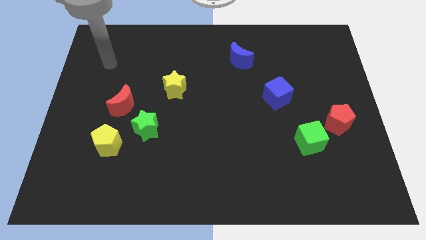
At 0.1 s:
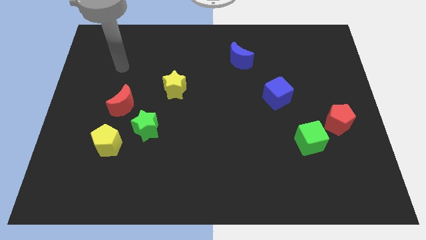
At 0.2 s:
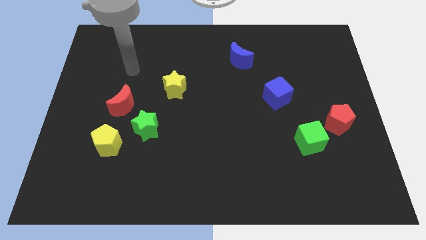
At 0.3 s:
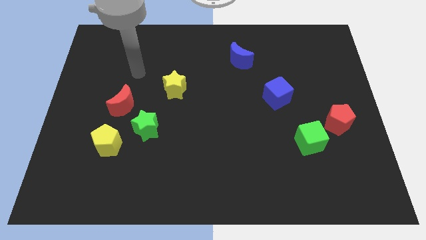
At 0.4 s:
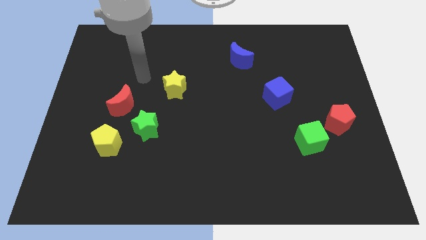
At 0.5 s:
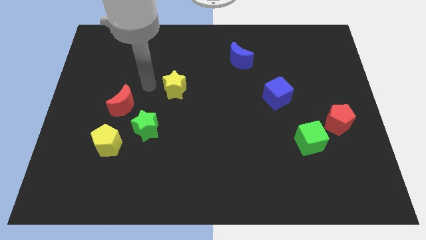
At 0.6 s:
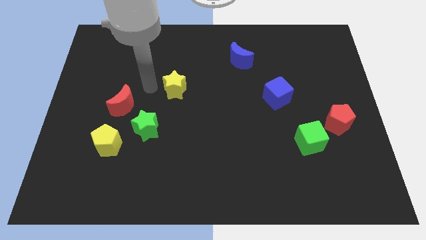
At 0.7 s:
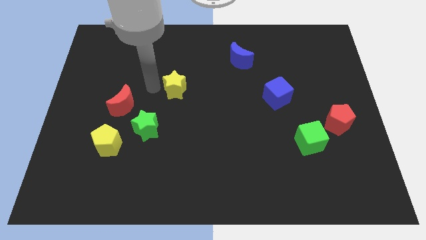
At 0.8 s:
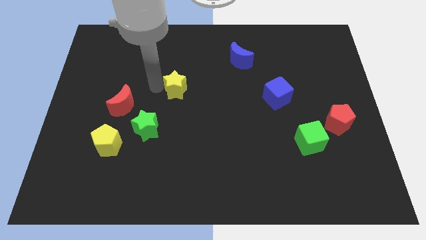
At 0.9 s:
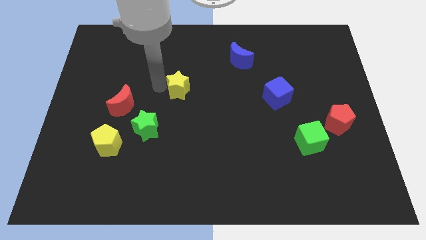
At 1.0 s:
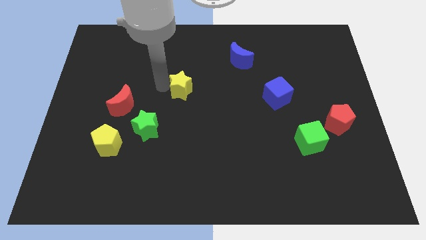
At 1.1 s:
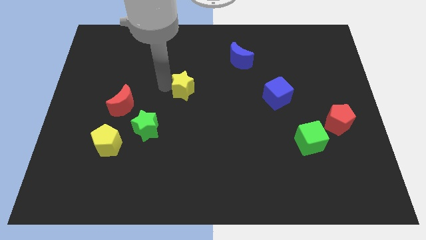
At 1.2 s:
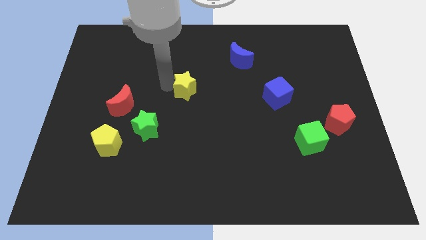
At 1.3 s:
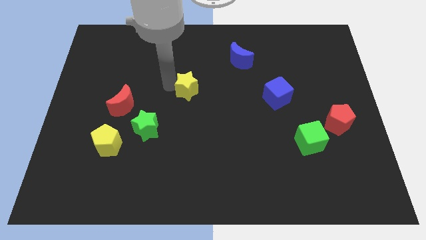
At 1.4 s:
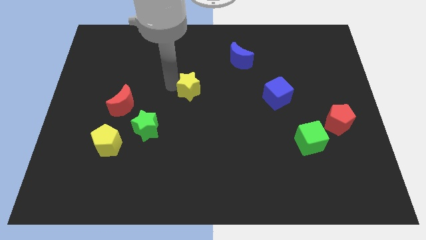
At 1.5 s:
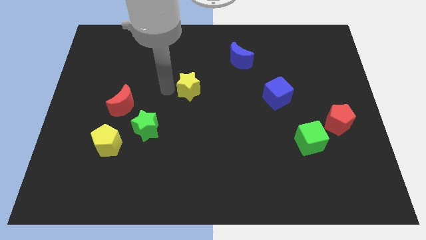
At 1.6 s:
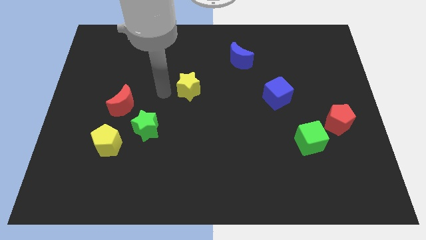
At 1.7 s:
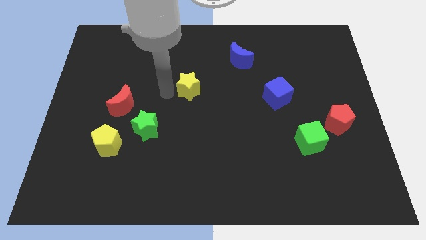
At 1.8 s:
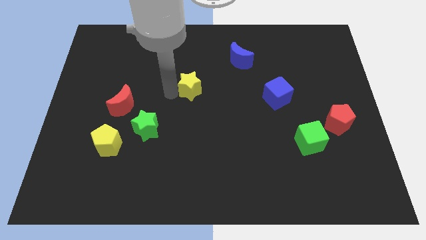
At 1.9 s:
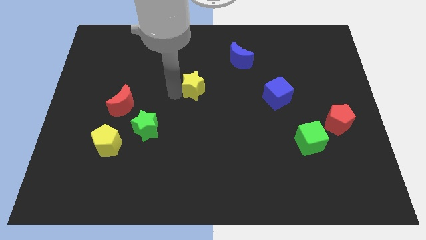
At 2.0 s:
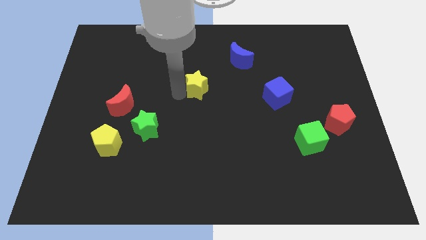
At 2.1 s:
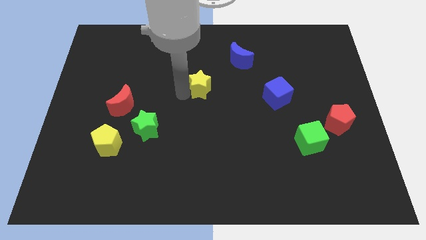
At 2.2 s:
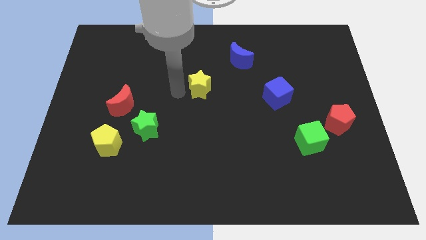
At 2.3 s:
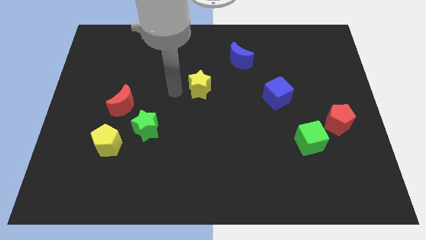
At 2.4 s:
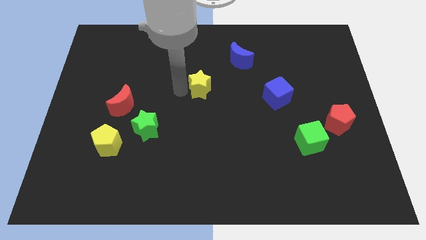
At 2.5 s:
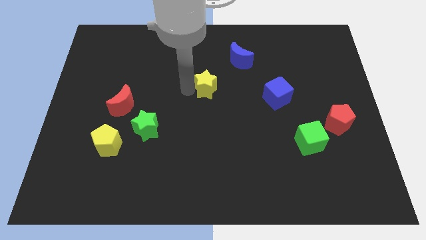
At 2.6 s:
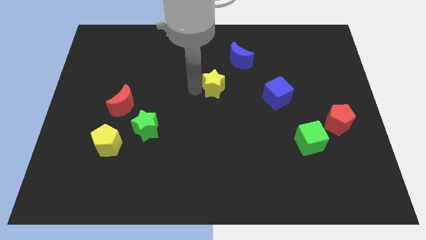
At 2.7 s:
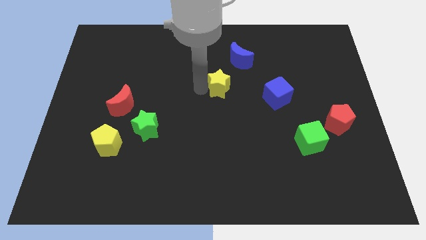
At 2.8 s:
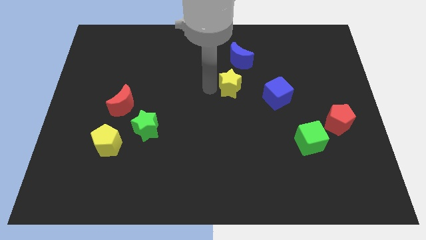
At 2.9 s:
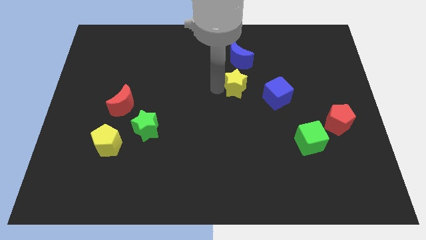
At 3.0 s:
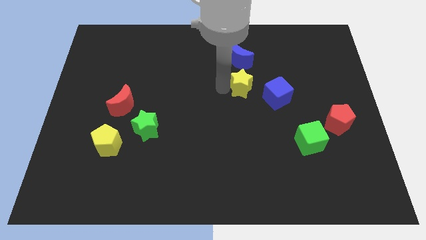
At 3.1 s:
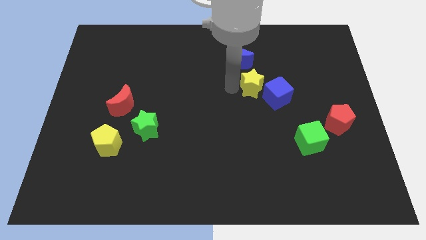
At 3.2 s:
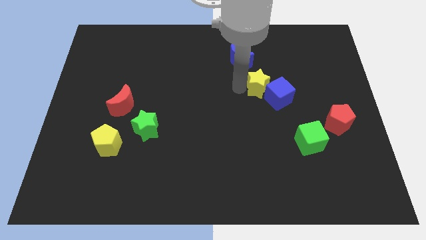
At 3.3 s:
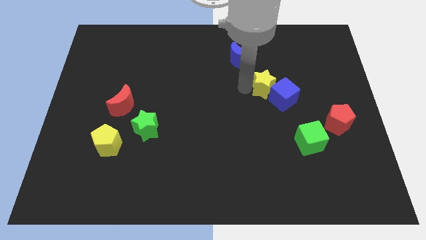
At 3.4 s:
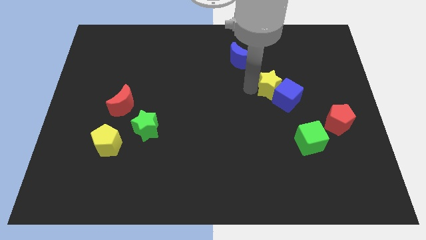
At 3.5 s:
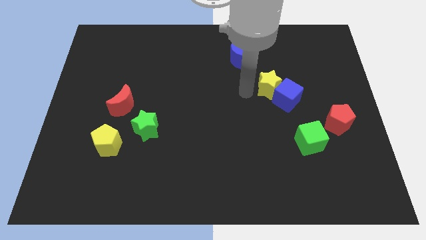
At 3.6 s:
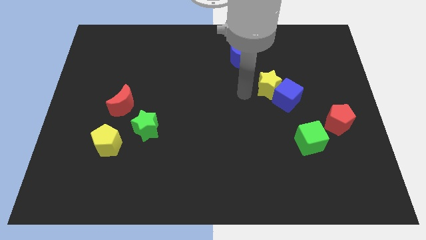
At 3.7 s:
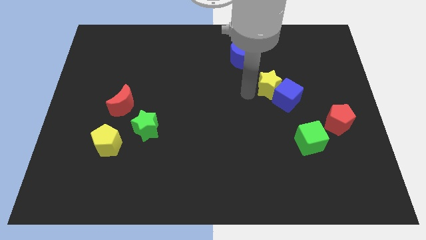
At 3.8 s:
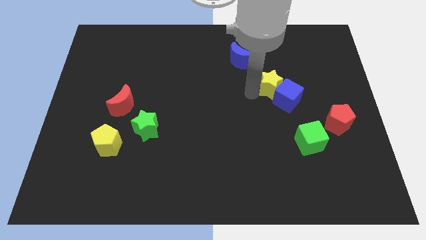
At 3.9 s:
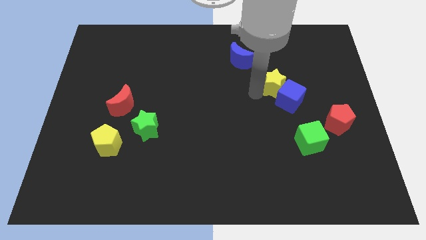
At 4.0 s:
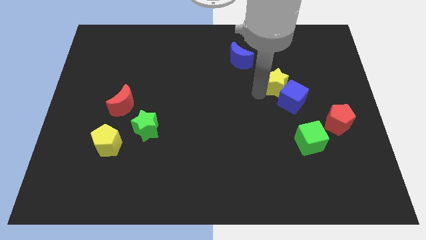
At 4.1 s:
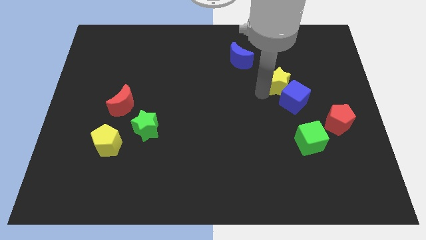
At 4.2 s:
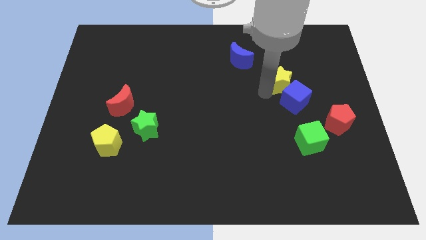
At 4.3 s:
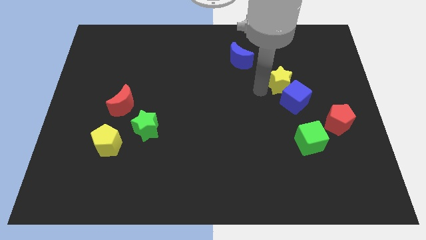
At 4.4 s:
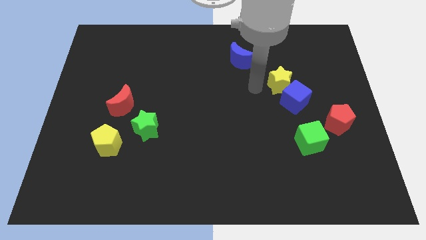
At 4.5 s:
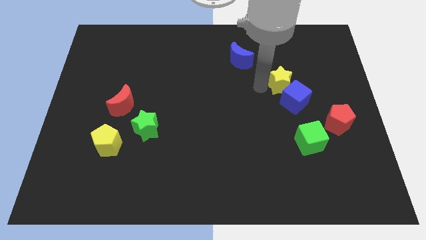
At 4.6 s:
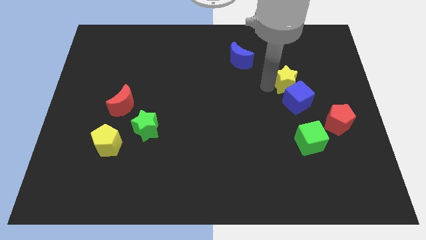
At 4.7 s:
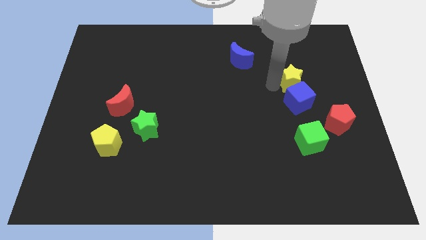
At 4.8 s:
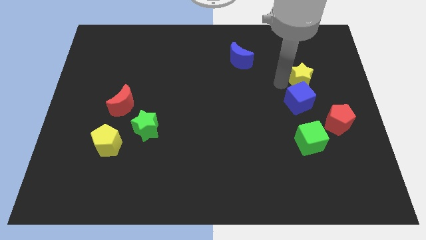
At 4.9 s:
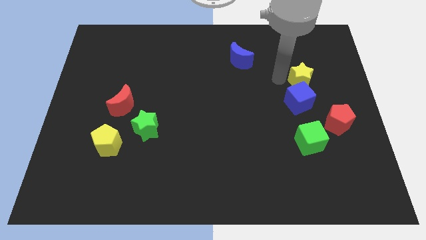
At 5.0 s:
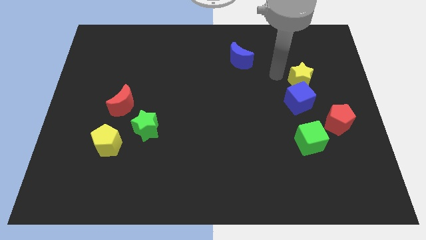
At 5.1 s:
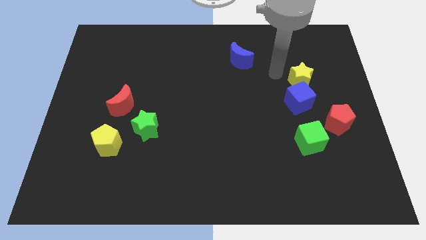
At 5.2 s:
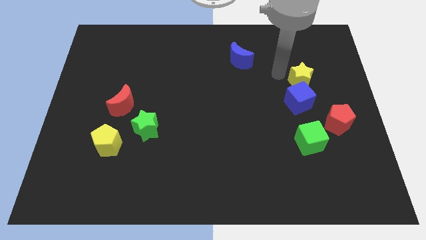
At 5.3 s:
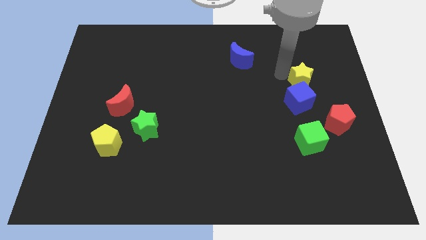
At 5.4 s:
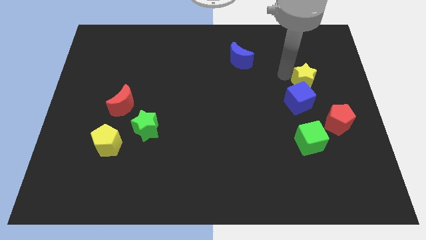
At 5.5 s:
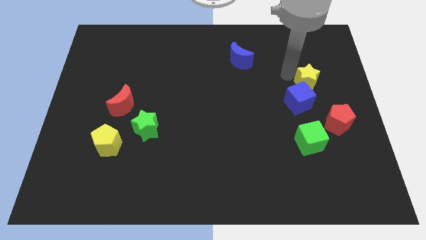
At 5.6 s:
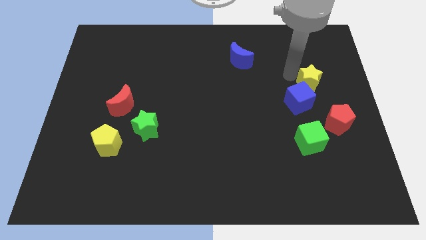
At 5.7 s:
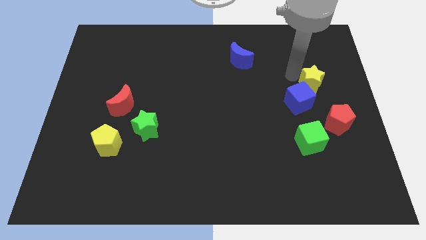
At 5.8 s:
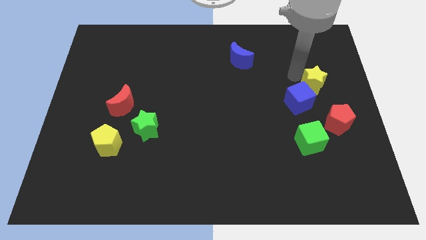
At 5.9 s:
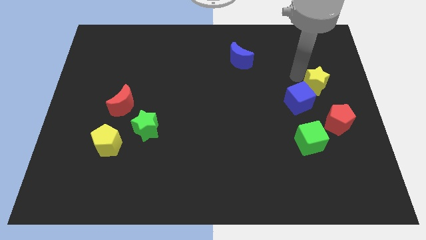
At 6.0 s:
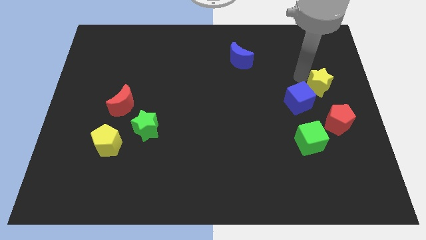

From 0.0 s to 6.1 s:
push the yellow star to the right side of the board

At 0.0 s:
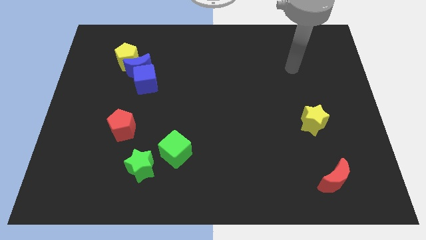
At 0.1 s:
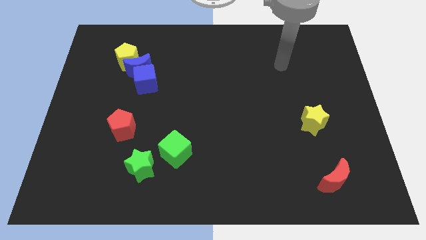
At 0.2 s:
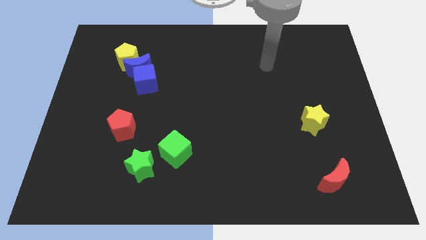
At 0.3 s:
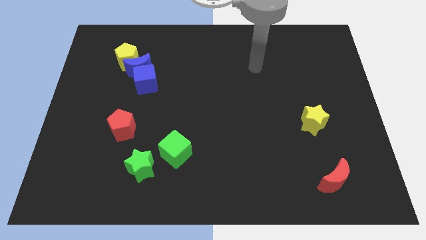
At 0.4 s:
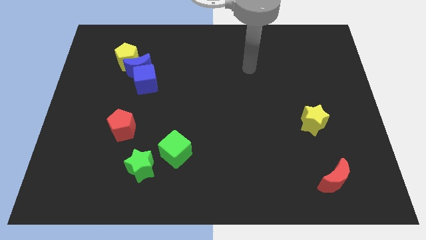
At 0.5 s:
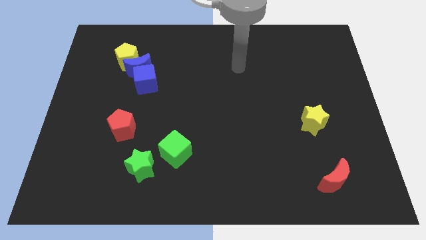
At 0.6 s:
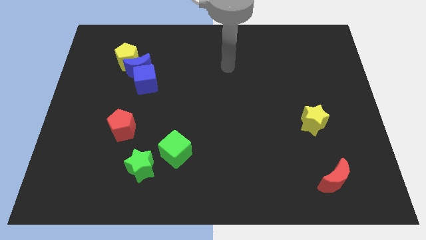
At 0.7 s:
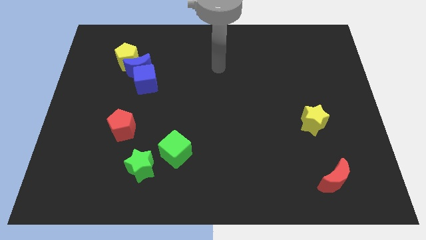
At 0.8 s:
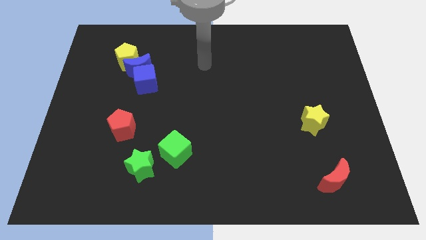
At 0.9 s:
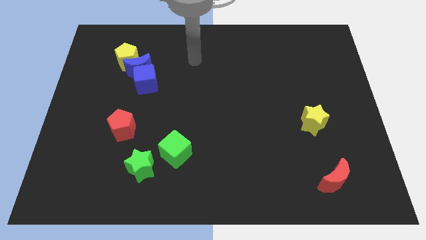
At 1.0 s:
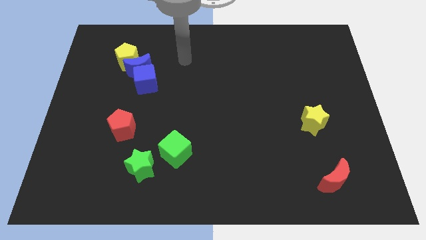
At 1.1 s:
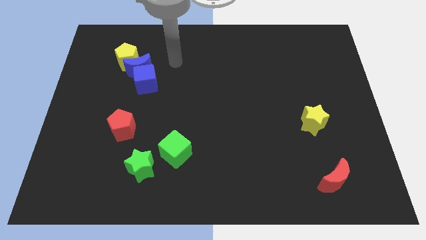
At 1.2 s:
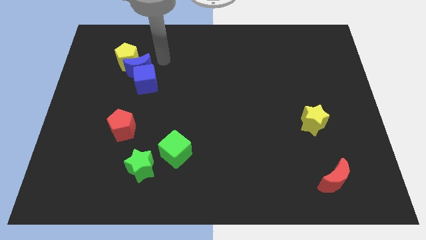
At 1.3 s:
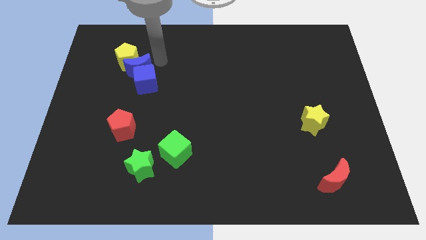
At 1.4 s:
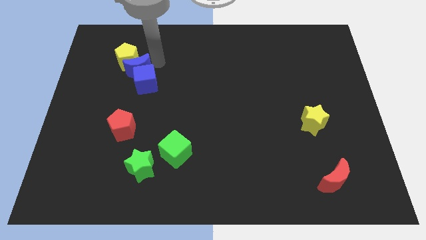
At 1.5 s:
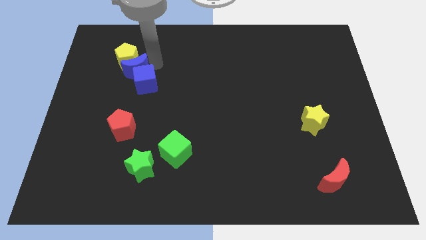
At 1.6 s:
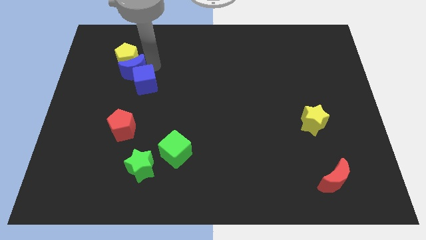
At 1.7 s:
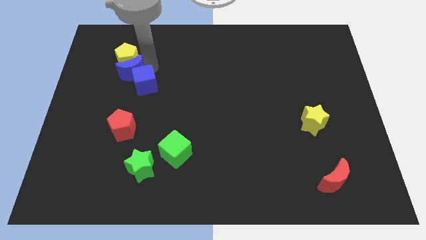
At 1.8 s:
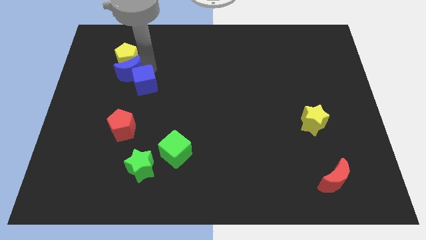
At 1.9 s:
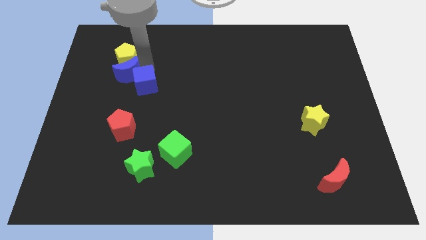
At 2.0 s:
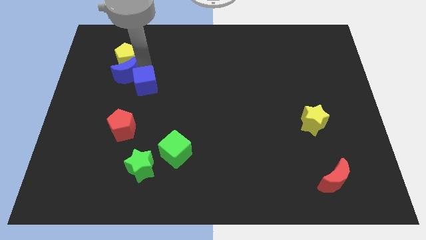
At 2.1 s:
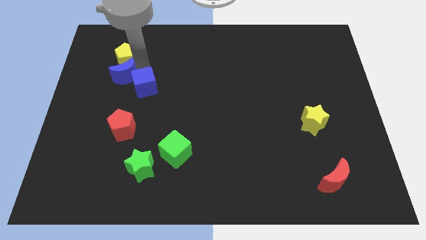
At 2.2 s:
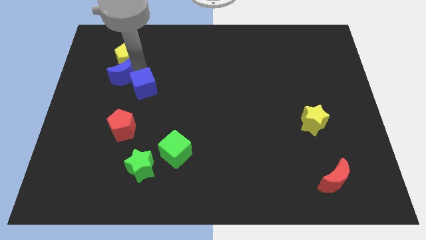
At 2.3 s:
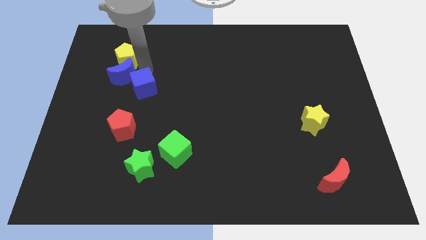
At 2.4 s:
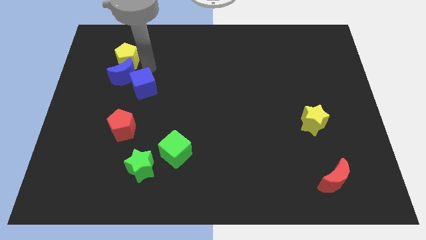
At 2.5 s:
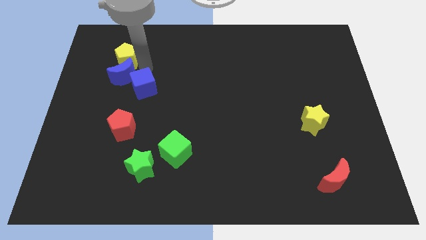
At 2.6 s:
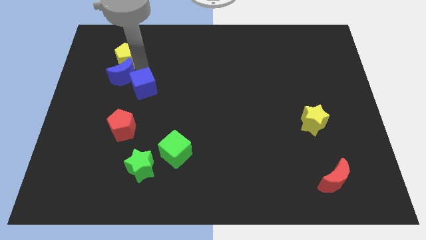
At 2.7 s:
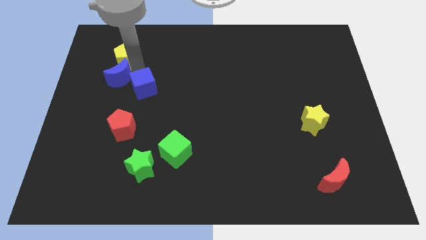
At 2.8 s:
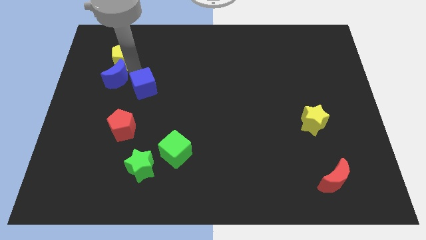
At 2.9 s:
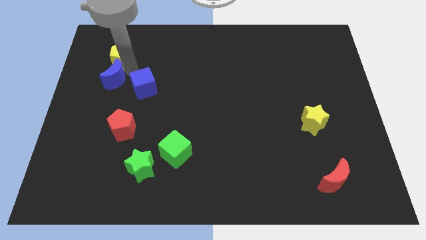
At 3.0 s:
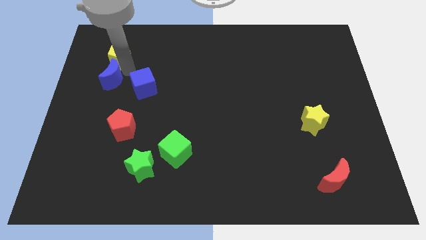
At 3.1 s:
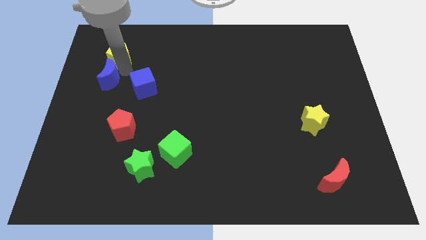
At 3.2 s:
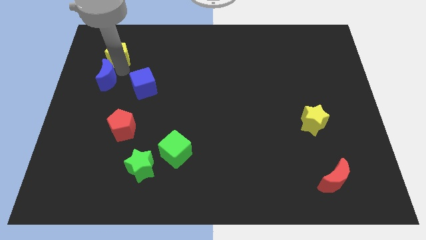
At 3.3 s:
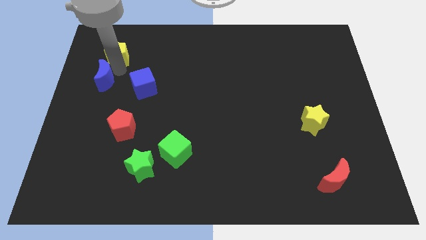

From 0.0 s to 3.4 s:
move the blue moon to the left side
